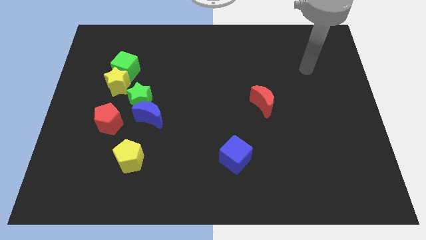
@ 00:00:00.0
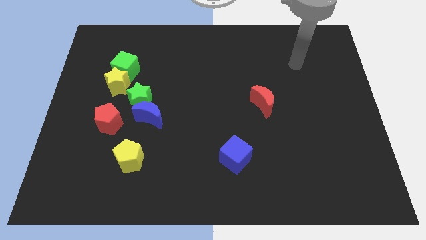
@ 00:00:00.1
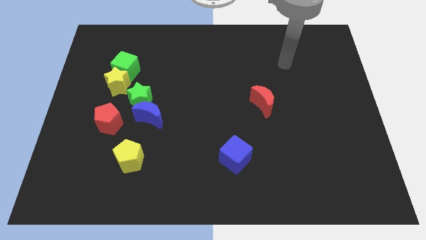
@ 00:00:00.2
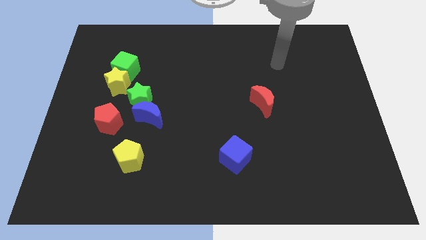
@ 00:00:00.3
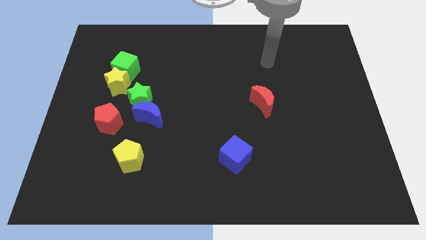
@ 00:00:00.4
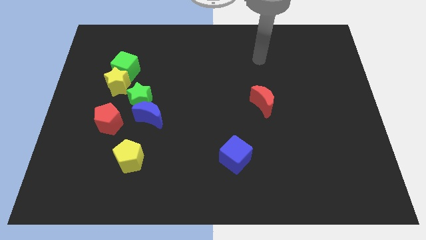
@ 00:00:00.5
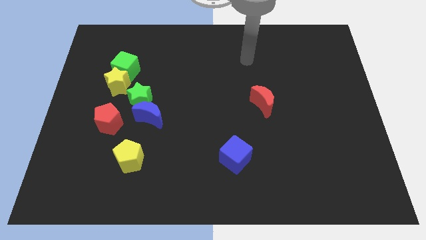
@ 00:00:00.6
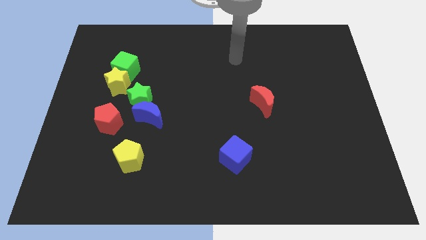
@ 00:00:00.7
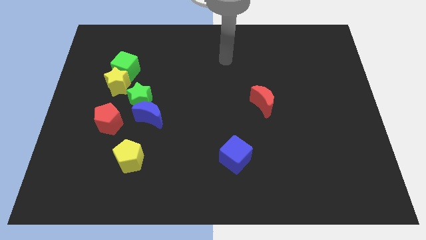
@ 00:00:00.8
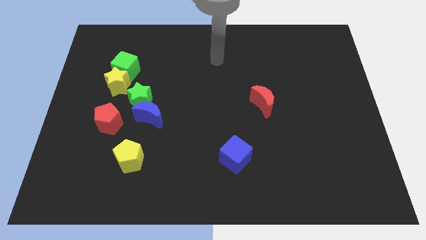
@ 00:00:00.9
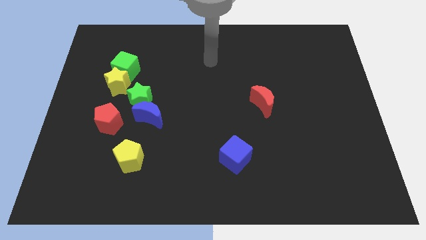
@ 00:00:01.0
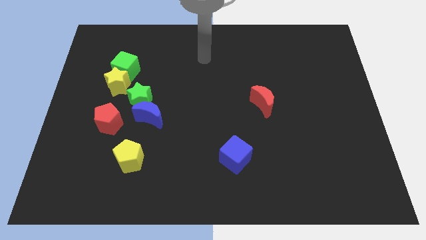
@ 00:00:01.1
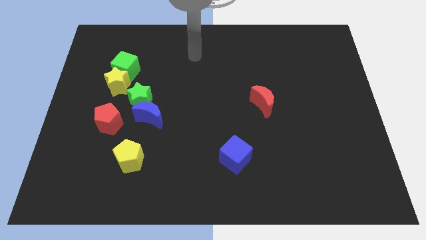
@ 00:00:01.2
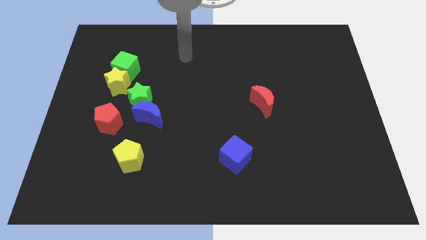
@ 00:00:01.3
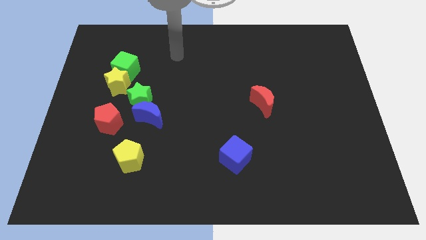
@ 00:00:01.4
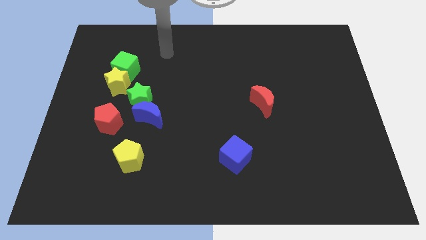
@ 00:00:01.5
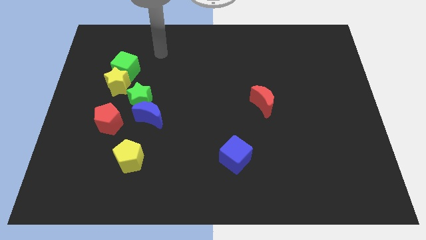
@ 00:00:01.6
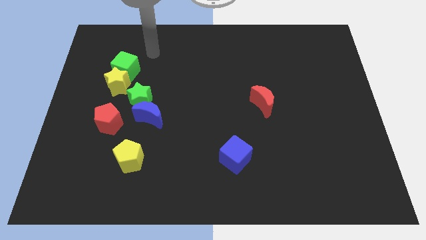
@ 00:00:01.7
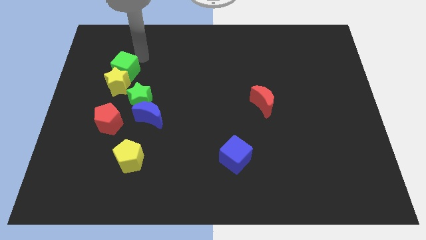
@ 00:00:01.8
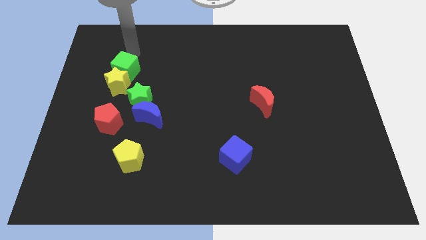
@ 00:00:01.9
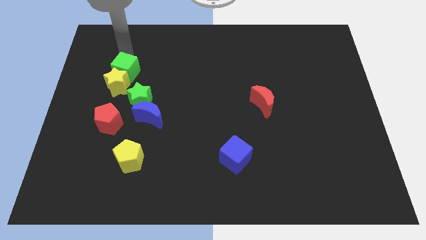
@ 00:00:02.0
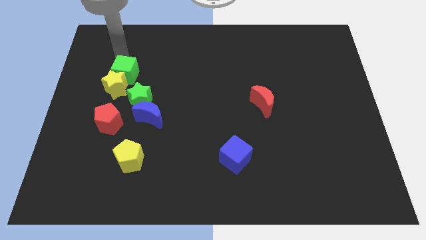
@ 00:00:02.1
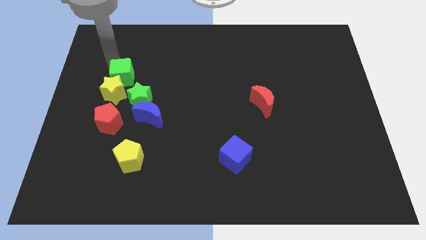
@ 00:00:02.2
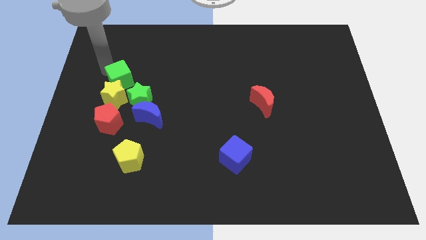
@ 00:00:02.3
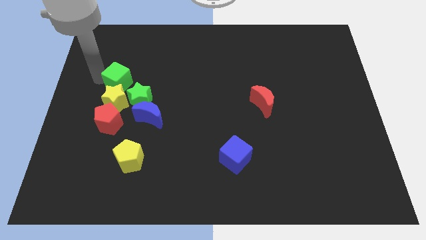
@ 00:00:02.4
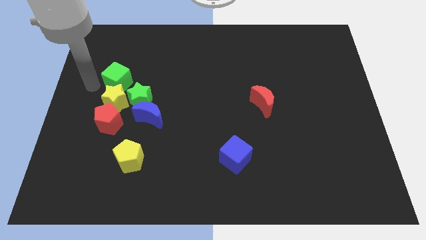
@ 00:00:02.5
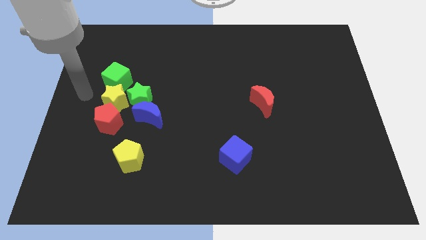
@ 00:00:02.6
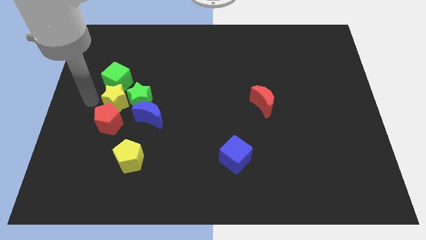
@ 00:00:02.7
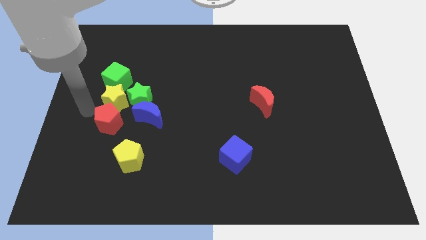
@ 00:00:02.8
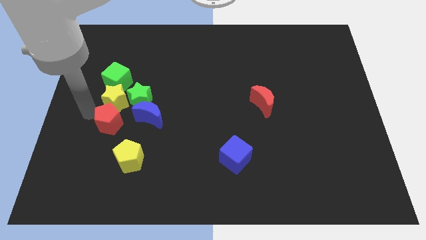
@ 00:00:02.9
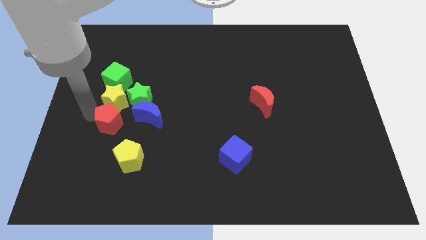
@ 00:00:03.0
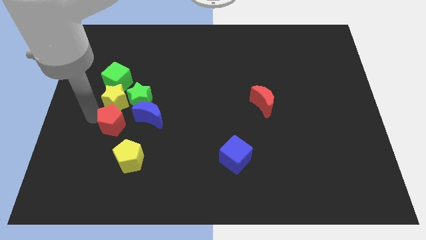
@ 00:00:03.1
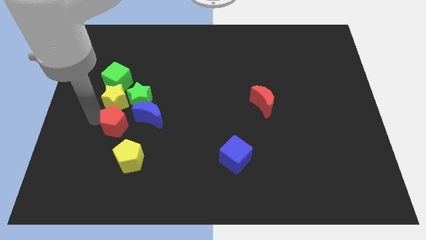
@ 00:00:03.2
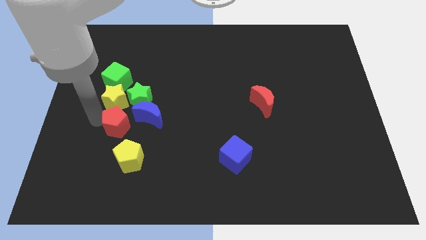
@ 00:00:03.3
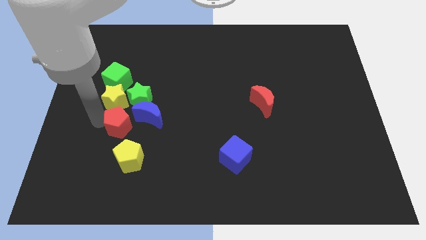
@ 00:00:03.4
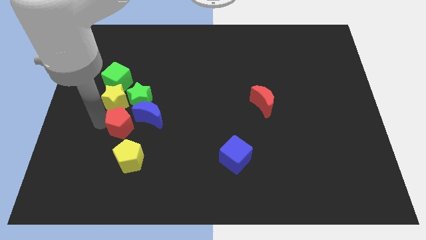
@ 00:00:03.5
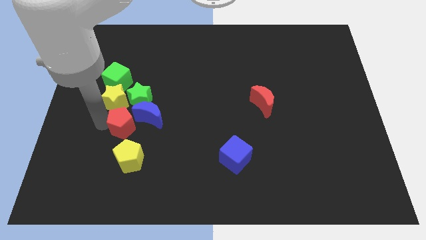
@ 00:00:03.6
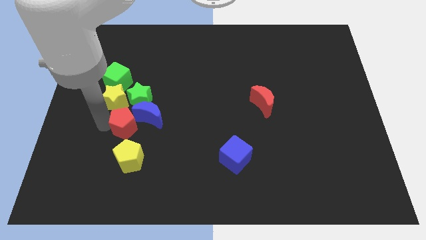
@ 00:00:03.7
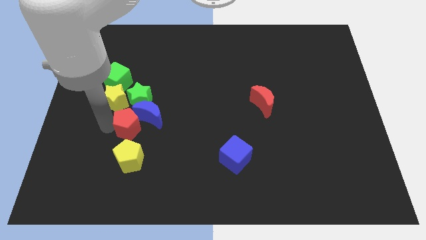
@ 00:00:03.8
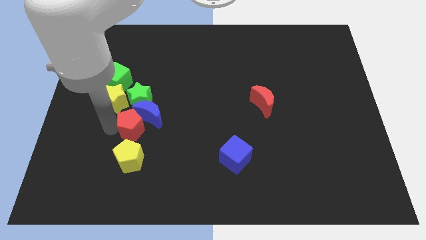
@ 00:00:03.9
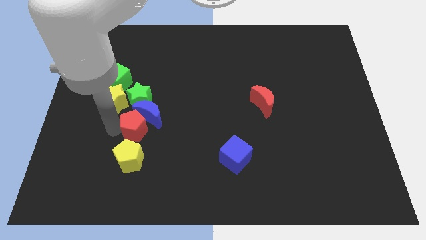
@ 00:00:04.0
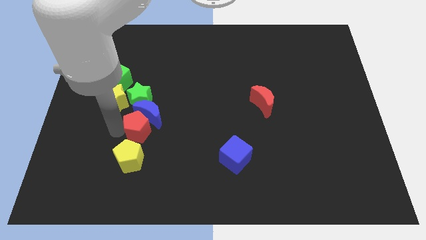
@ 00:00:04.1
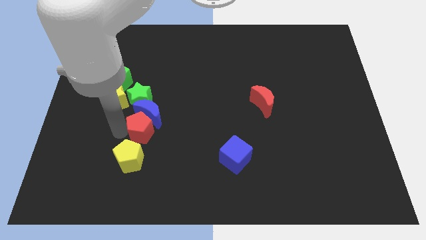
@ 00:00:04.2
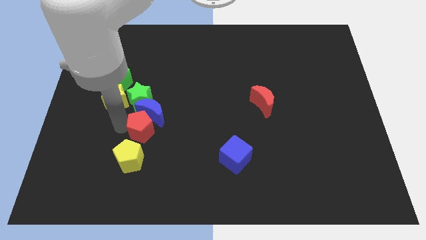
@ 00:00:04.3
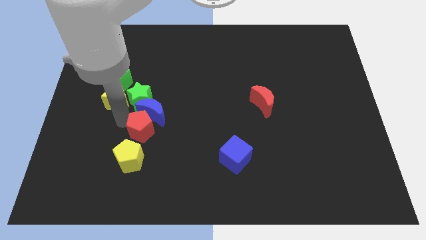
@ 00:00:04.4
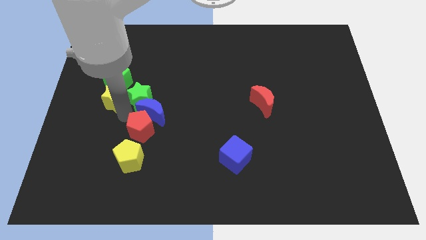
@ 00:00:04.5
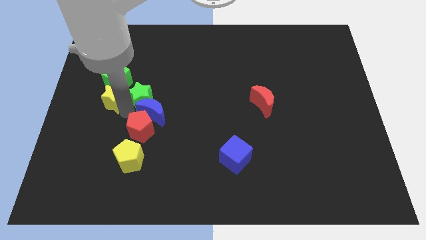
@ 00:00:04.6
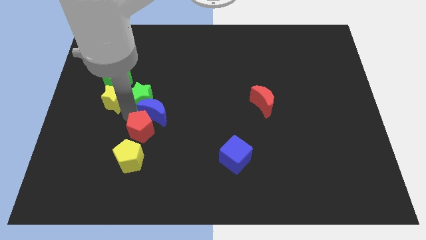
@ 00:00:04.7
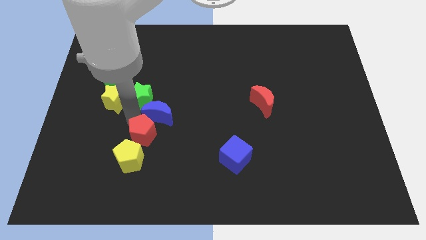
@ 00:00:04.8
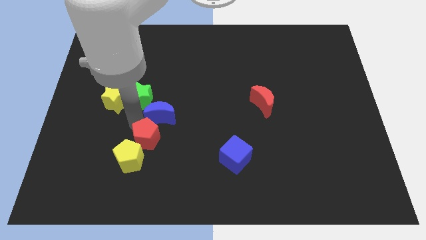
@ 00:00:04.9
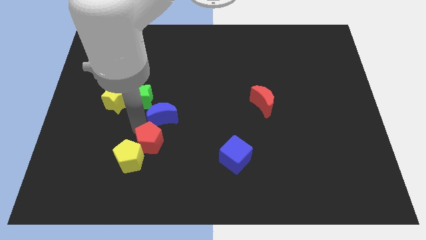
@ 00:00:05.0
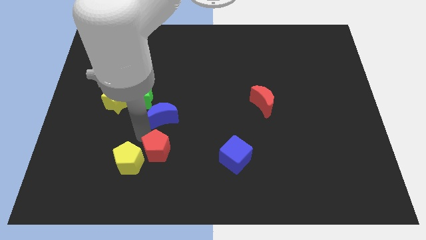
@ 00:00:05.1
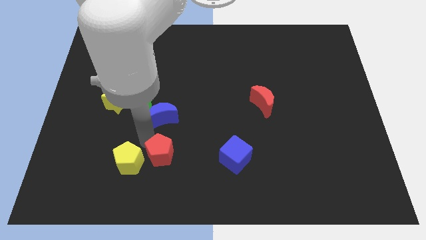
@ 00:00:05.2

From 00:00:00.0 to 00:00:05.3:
push the red pentagon to the left side of the blue cube

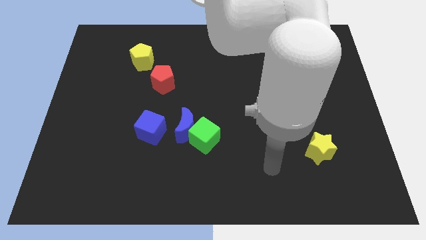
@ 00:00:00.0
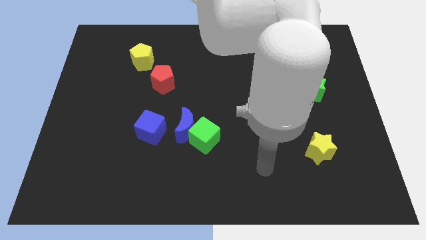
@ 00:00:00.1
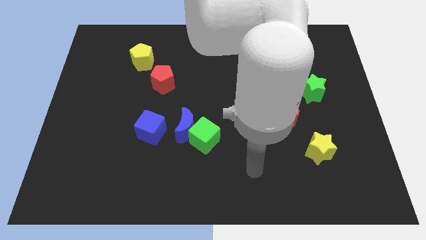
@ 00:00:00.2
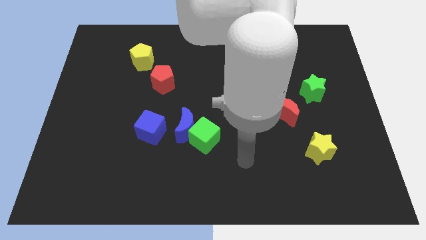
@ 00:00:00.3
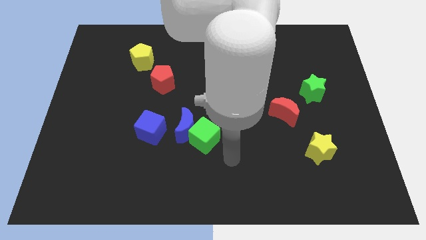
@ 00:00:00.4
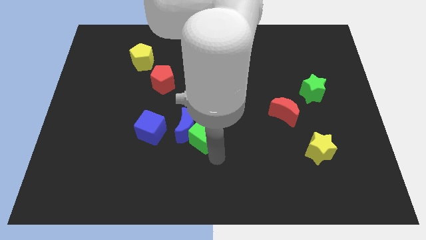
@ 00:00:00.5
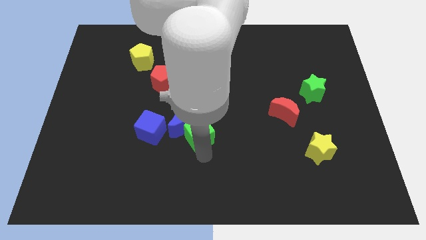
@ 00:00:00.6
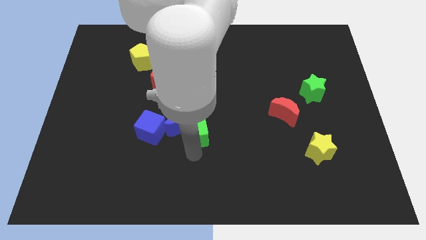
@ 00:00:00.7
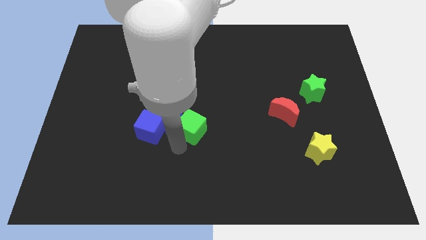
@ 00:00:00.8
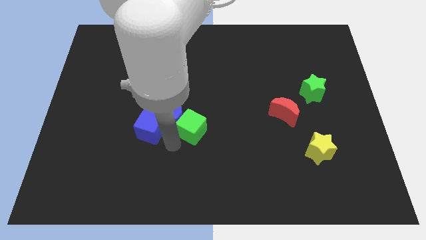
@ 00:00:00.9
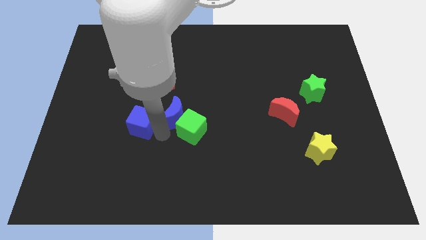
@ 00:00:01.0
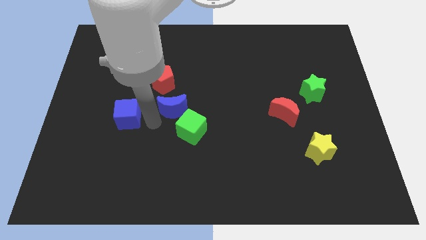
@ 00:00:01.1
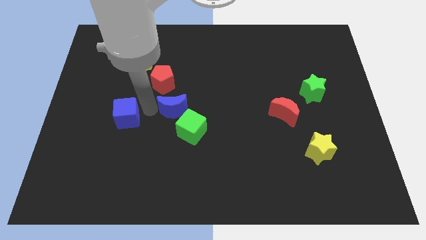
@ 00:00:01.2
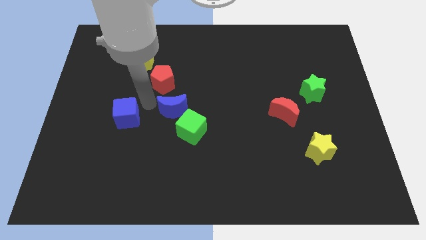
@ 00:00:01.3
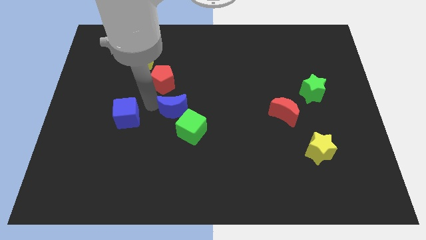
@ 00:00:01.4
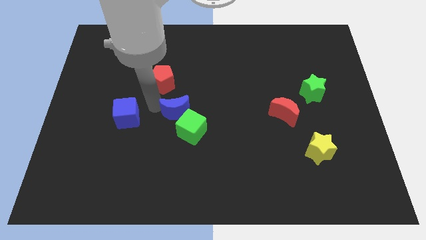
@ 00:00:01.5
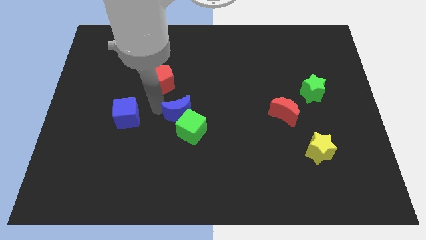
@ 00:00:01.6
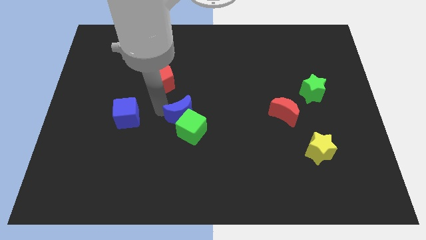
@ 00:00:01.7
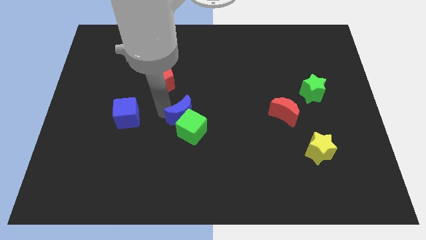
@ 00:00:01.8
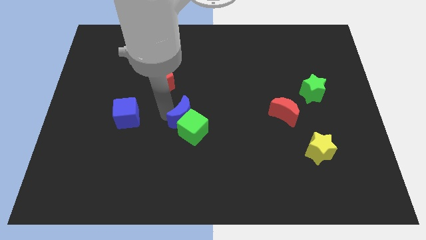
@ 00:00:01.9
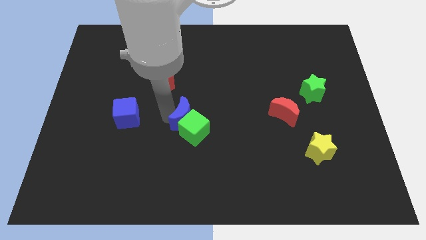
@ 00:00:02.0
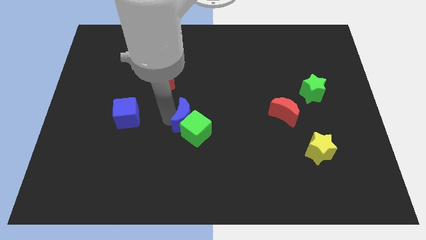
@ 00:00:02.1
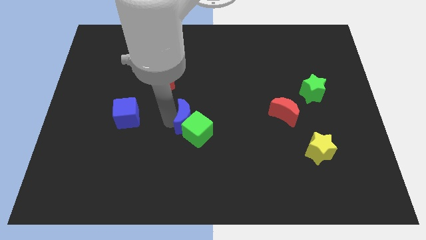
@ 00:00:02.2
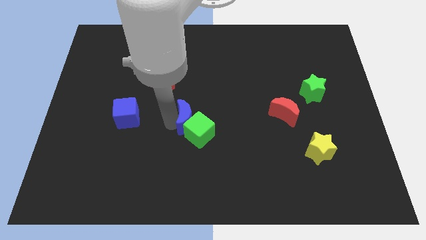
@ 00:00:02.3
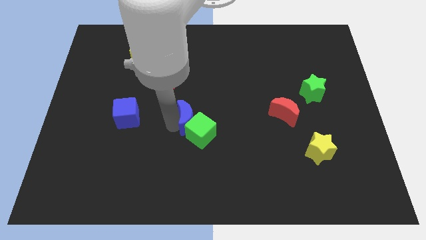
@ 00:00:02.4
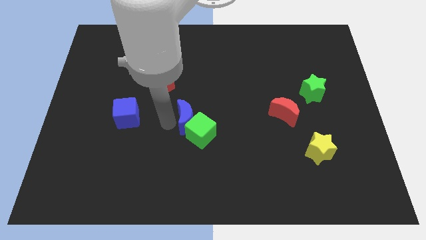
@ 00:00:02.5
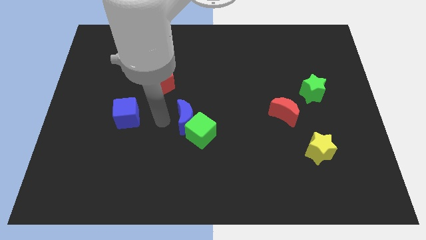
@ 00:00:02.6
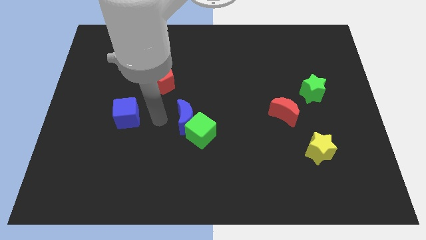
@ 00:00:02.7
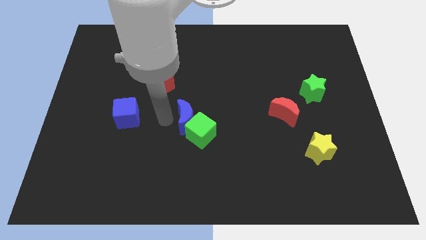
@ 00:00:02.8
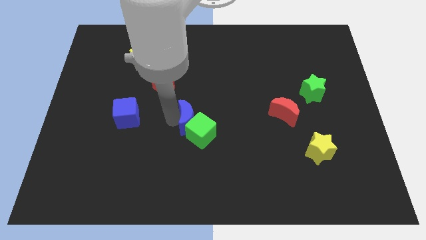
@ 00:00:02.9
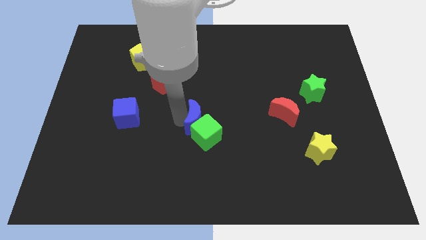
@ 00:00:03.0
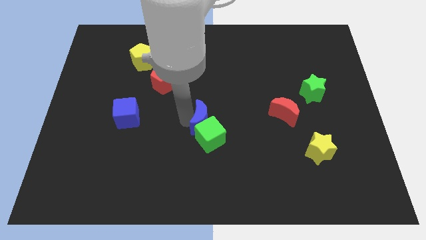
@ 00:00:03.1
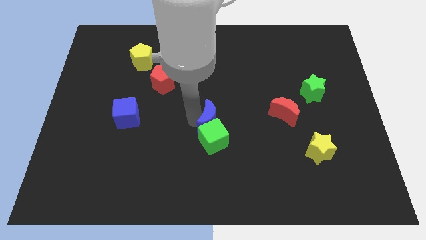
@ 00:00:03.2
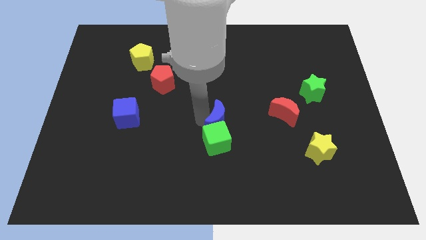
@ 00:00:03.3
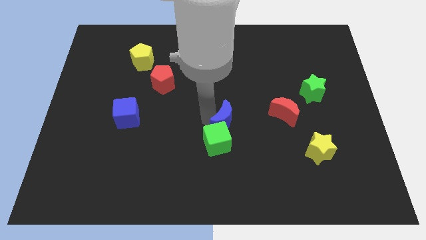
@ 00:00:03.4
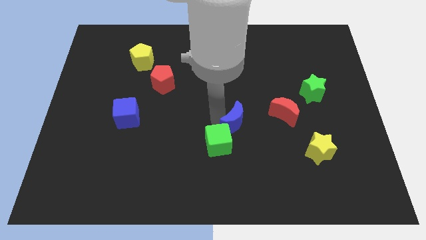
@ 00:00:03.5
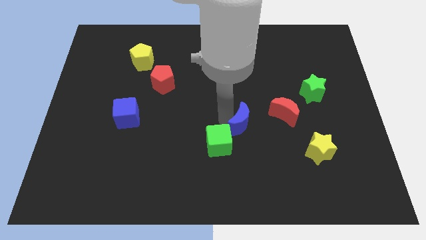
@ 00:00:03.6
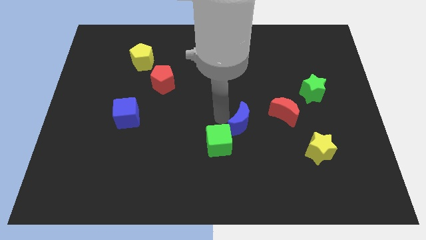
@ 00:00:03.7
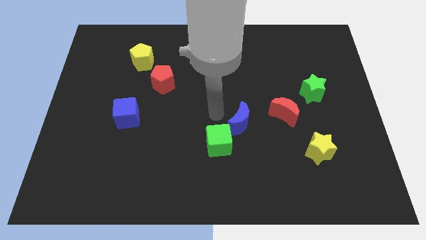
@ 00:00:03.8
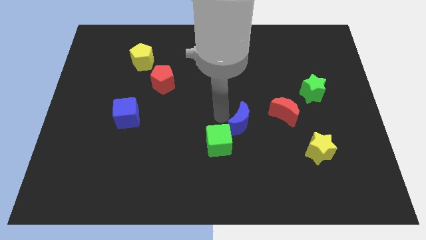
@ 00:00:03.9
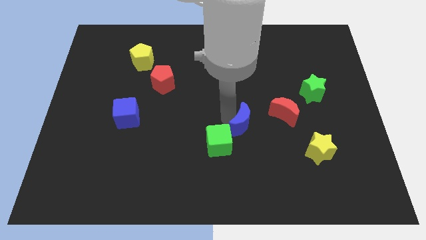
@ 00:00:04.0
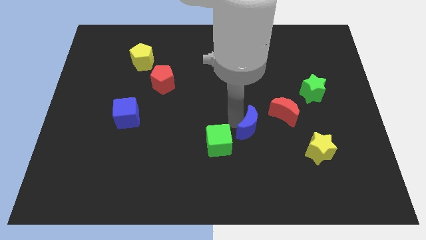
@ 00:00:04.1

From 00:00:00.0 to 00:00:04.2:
put the blue moon to the bottom left of the red moon
